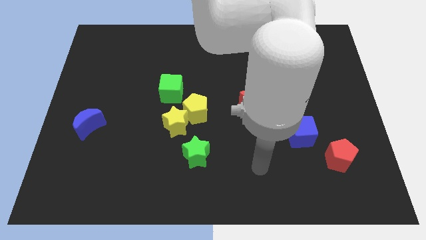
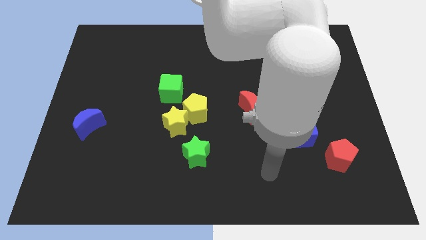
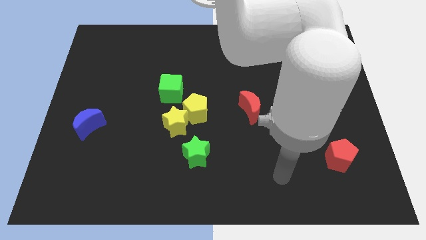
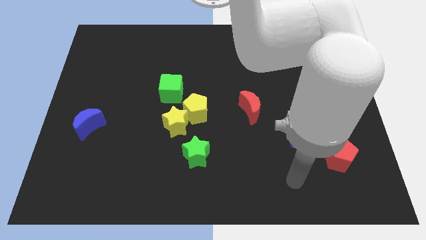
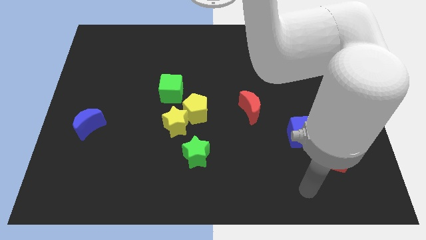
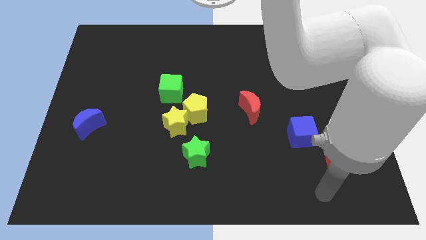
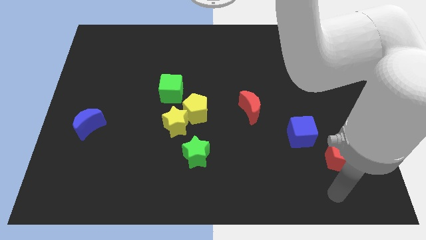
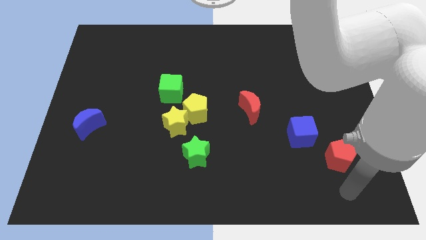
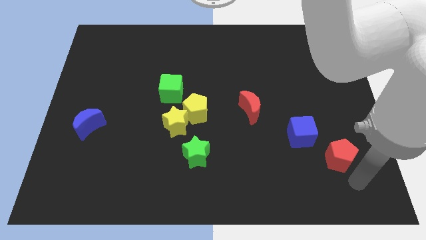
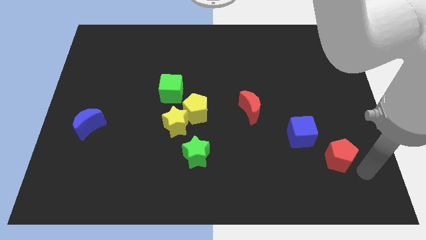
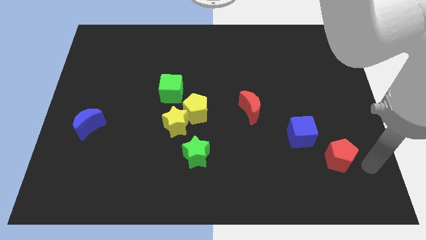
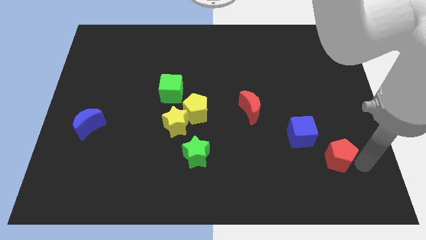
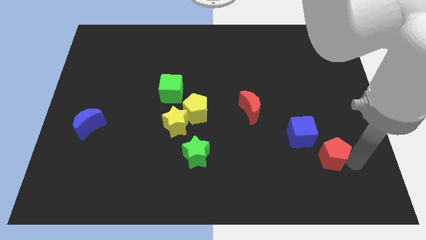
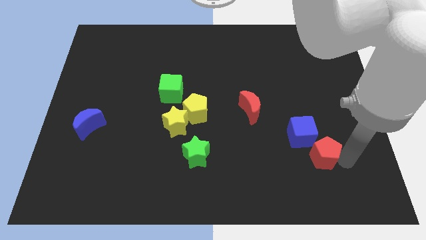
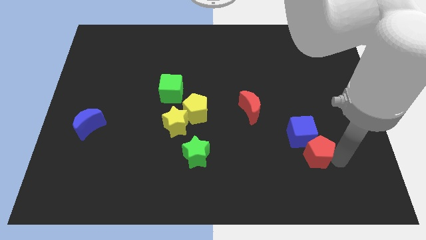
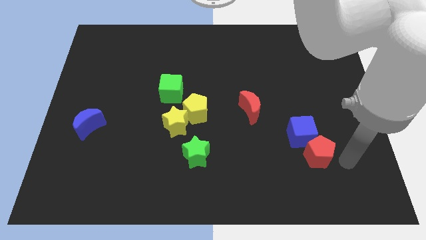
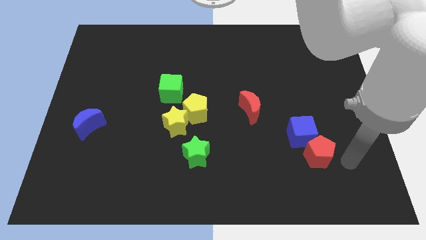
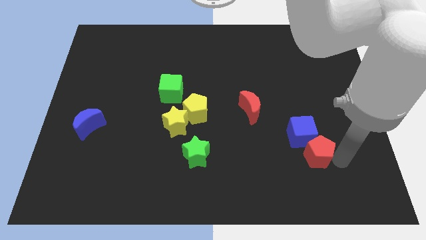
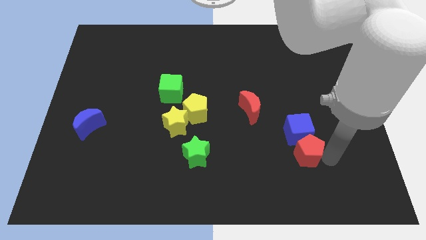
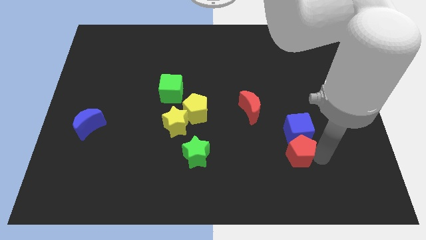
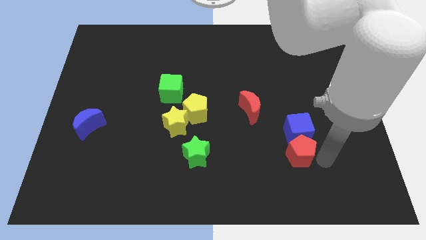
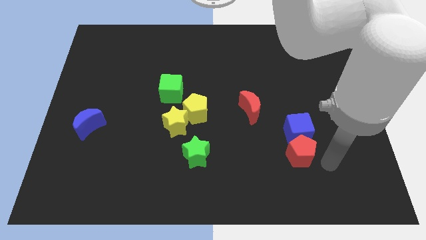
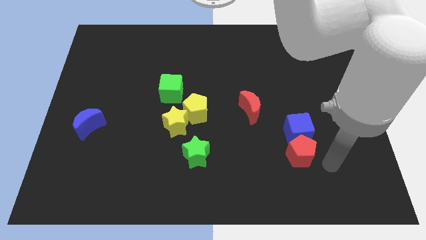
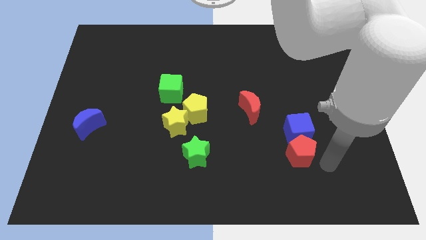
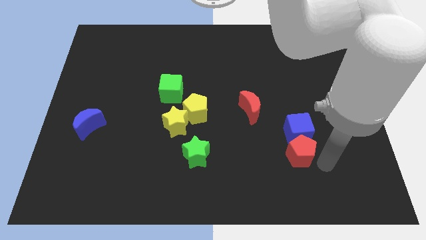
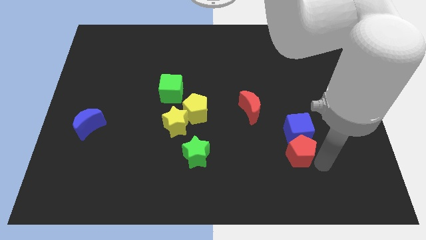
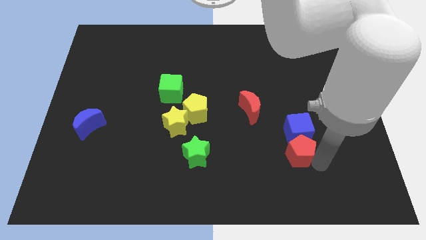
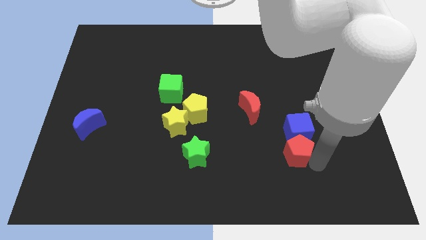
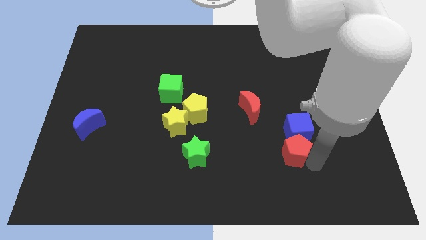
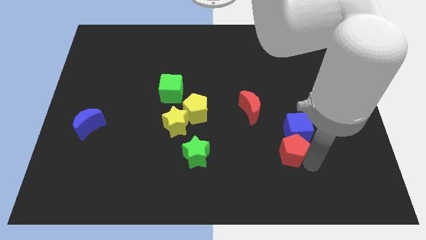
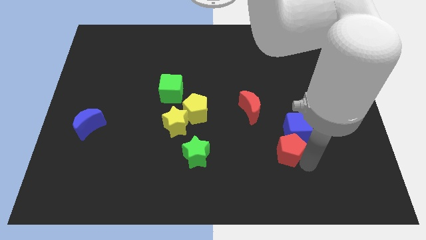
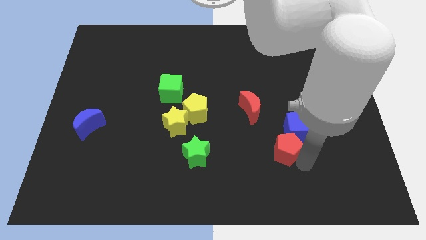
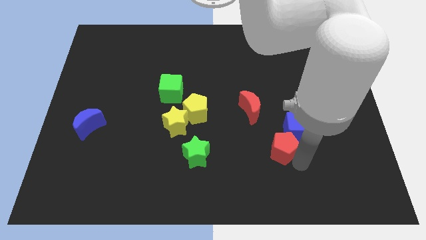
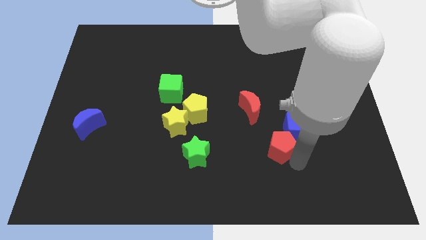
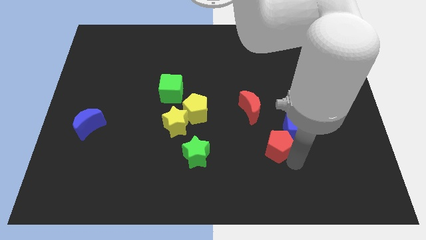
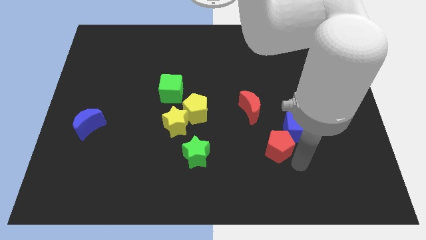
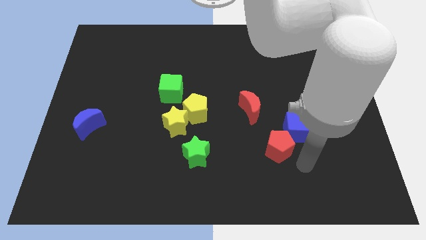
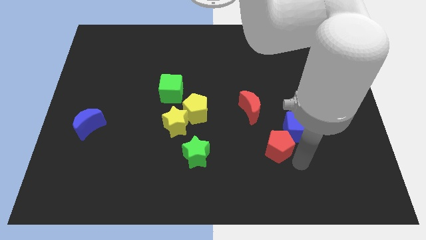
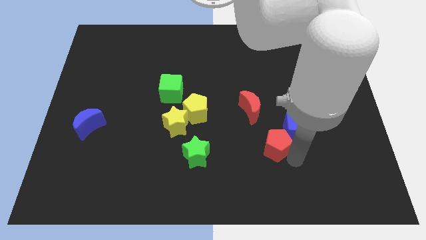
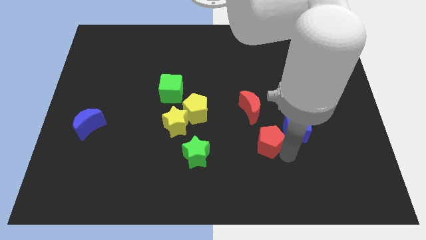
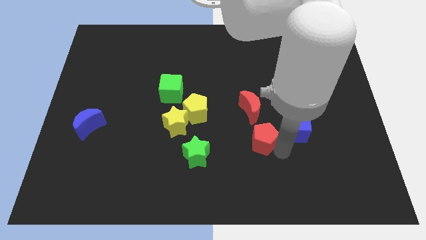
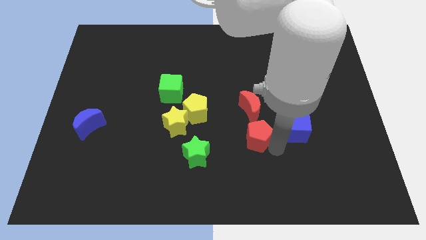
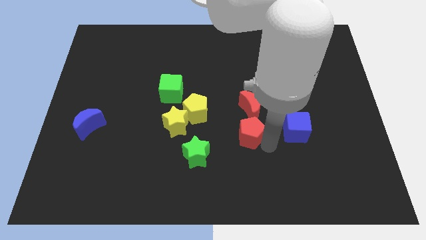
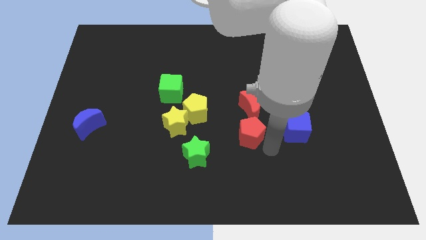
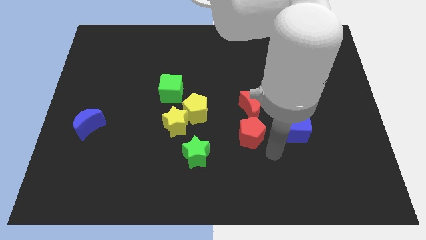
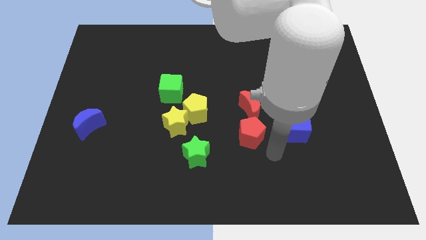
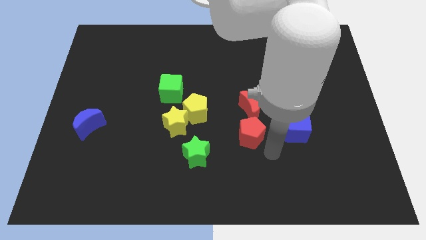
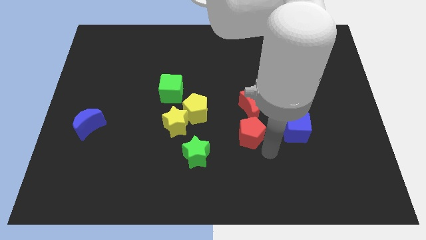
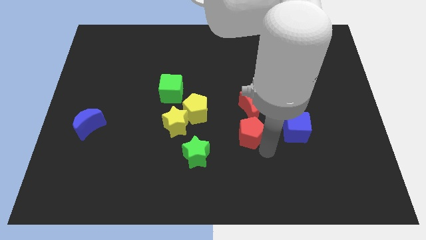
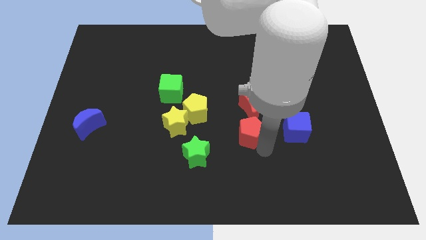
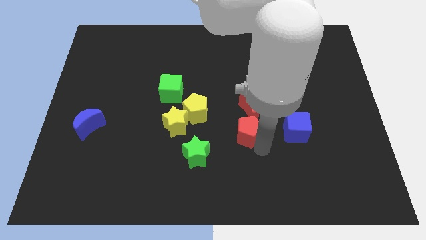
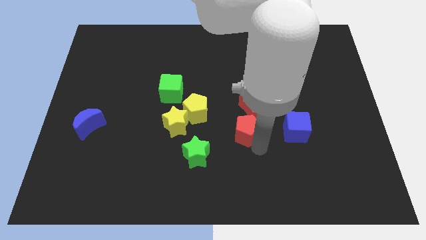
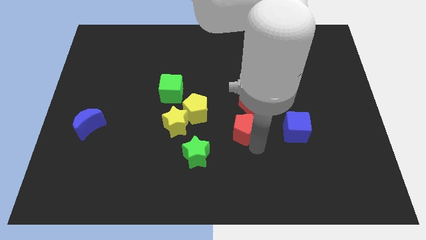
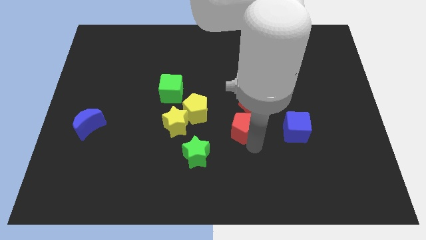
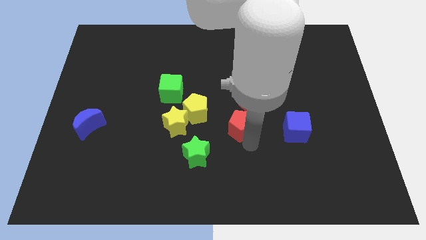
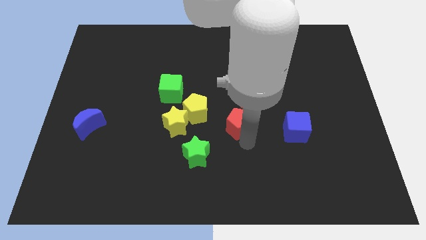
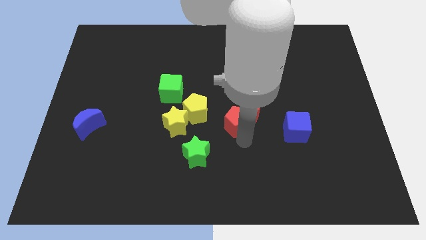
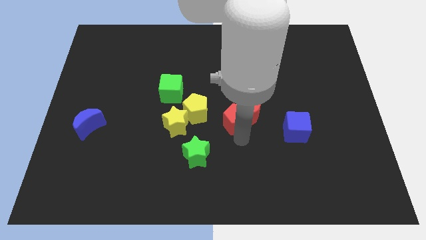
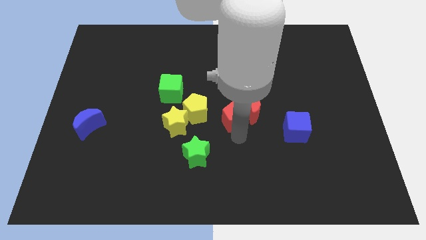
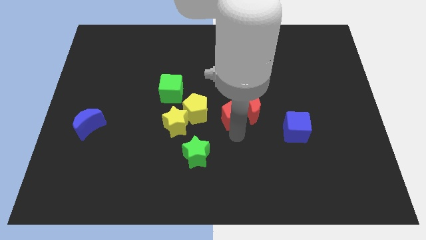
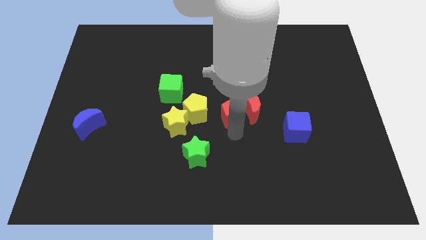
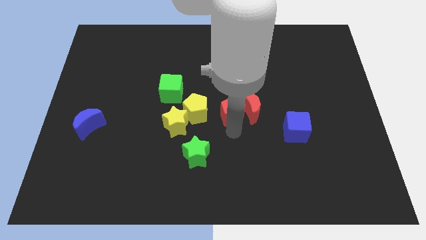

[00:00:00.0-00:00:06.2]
move the red pentagon diagonally up and to the left of the red moon
